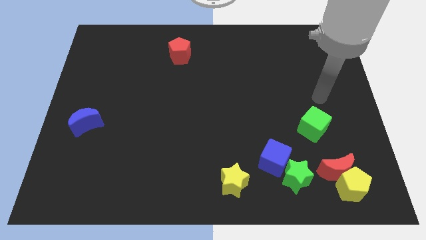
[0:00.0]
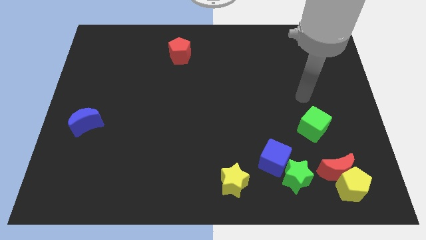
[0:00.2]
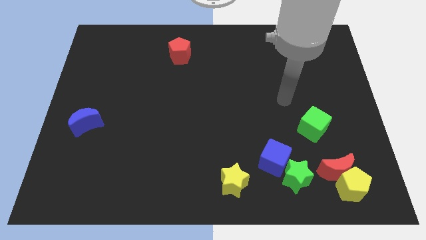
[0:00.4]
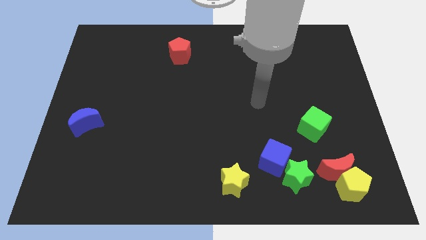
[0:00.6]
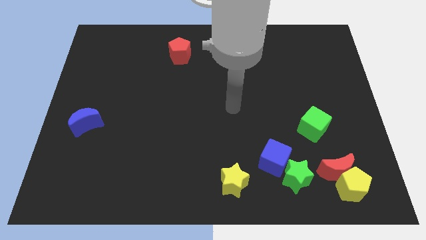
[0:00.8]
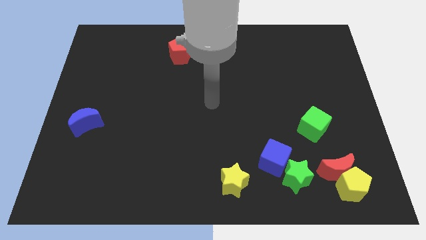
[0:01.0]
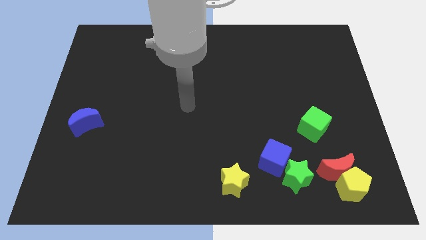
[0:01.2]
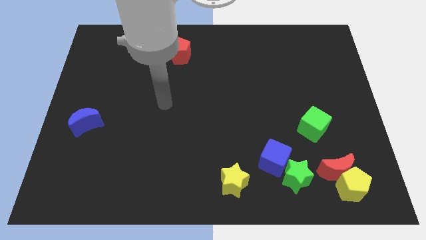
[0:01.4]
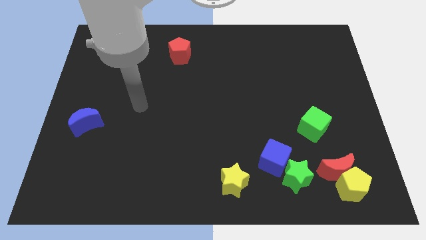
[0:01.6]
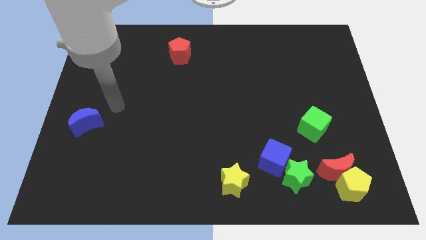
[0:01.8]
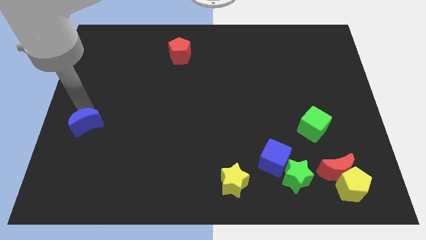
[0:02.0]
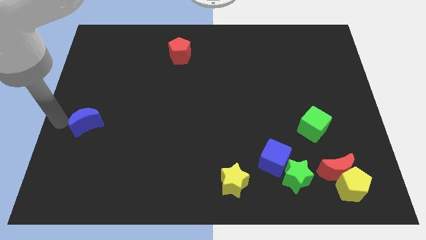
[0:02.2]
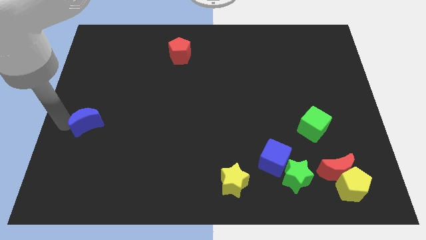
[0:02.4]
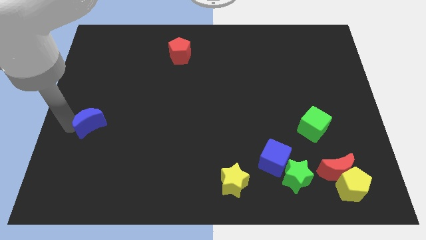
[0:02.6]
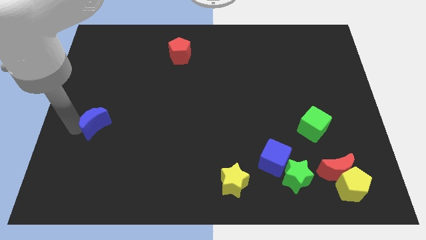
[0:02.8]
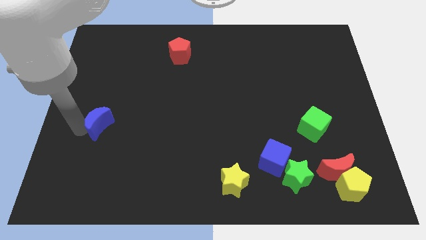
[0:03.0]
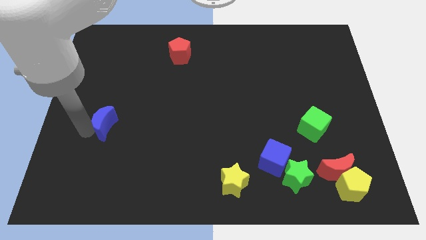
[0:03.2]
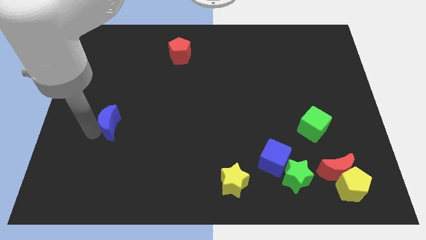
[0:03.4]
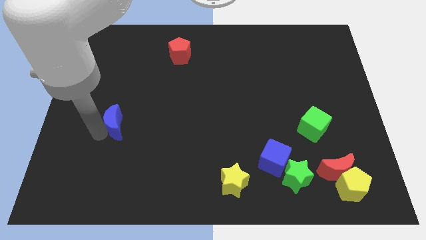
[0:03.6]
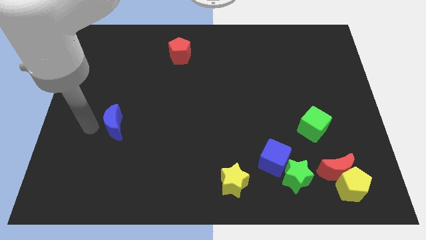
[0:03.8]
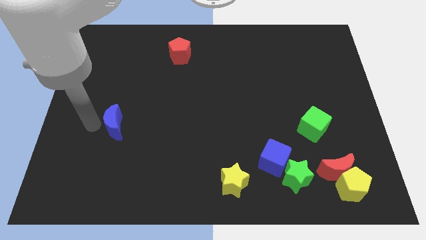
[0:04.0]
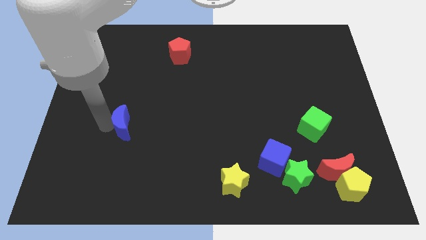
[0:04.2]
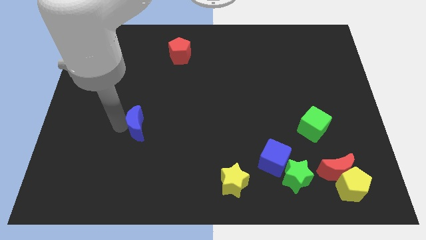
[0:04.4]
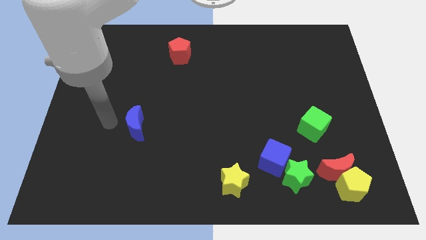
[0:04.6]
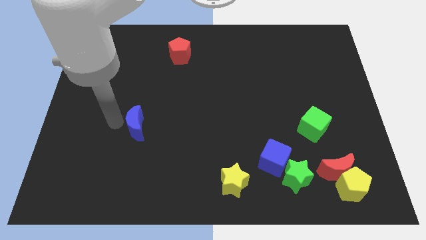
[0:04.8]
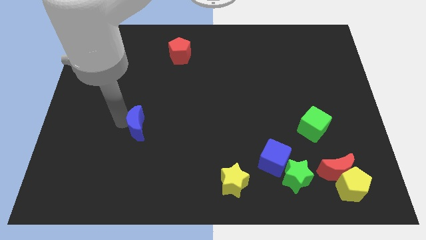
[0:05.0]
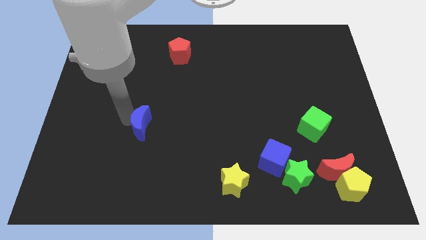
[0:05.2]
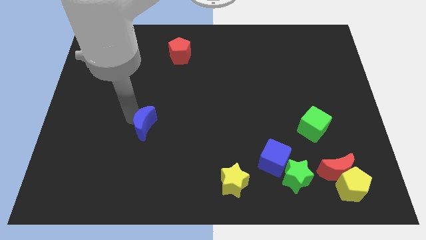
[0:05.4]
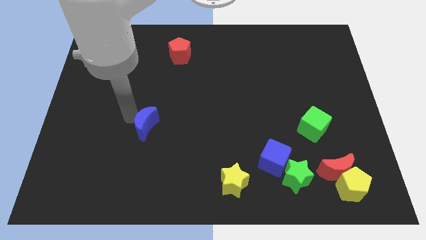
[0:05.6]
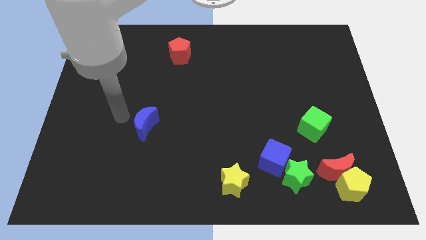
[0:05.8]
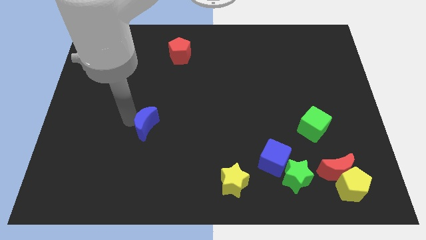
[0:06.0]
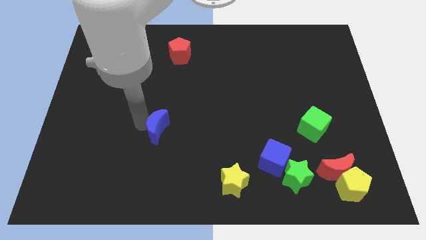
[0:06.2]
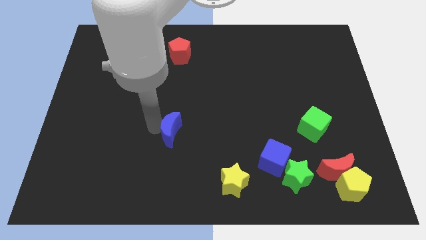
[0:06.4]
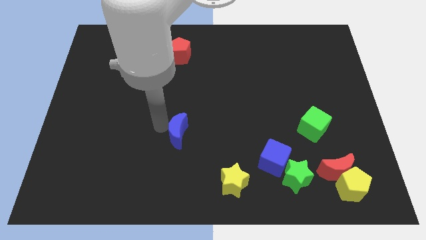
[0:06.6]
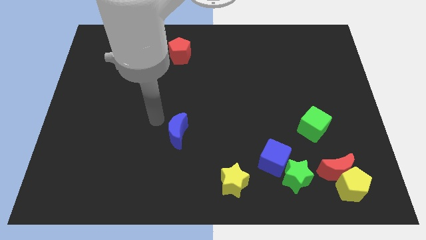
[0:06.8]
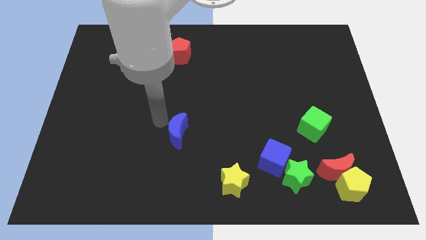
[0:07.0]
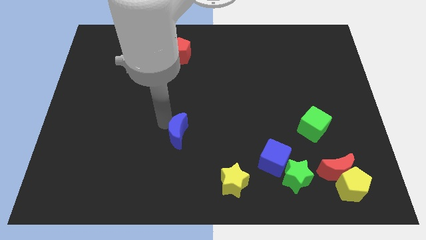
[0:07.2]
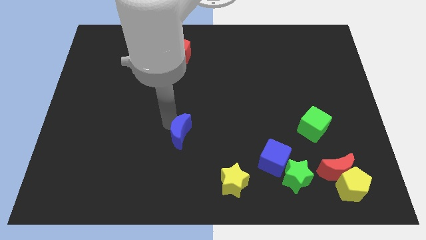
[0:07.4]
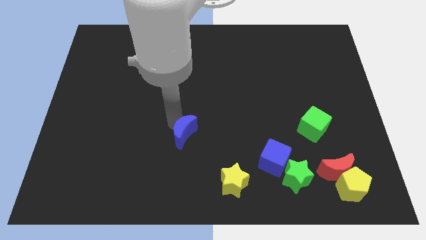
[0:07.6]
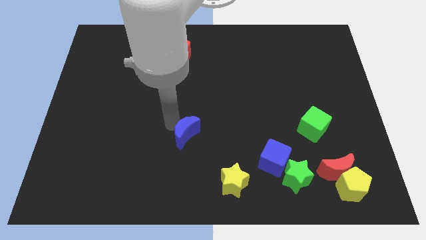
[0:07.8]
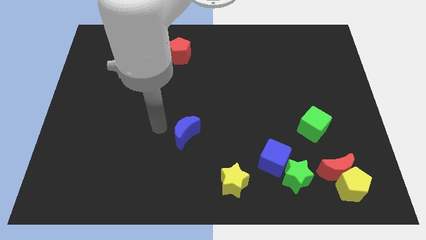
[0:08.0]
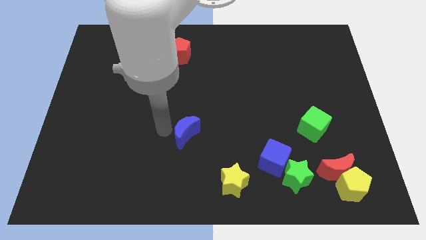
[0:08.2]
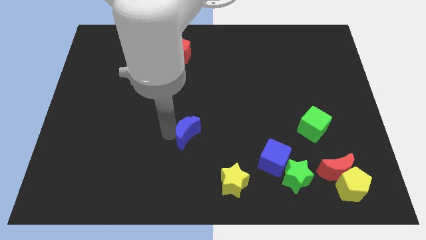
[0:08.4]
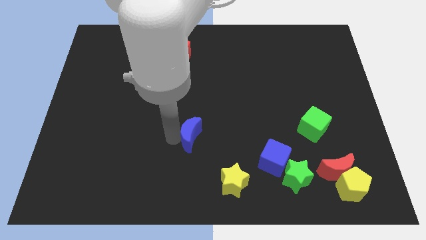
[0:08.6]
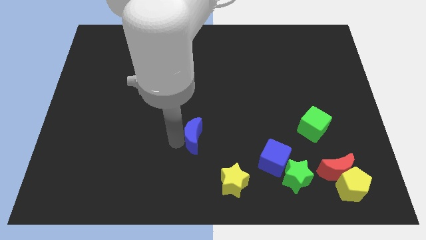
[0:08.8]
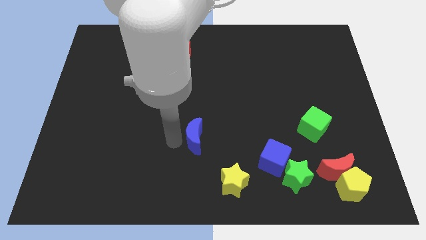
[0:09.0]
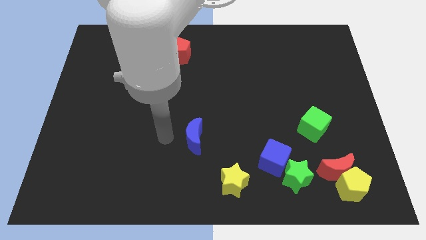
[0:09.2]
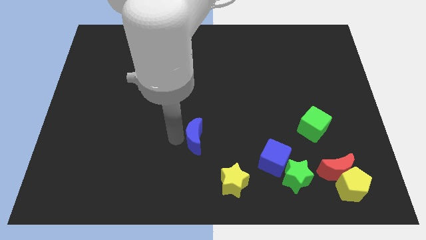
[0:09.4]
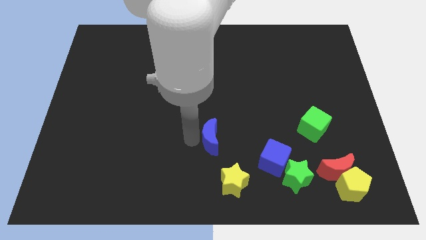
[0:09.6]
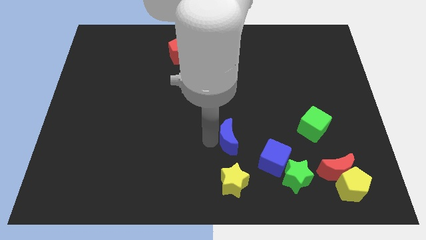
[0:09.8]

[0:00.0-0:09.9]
put the blue moon to the top left of the blue cube

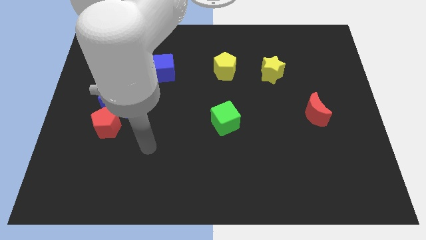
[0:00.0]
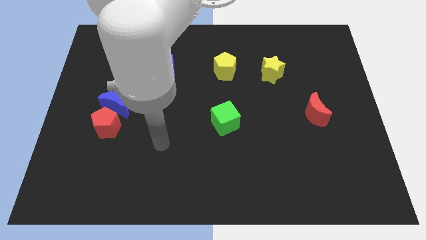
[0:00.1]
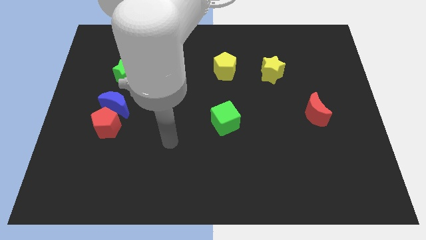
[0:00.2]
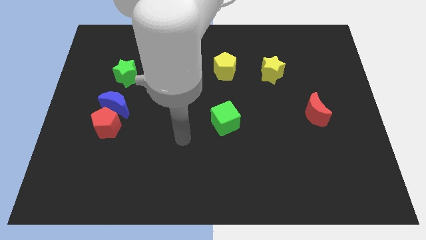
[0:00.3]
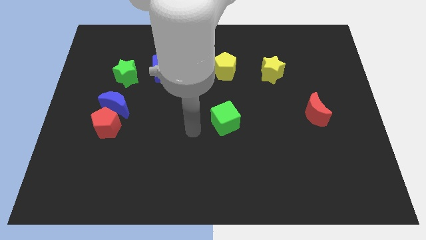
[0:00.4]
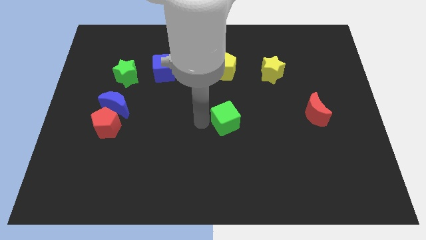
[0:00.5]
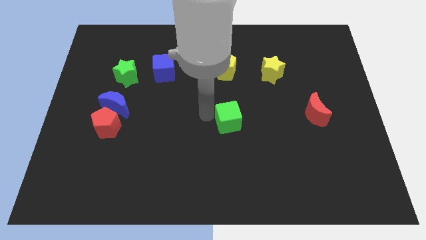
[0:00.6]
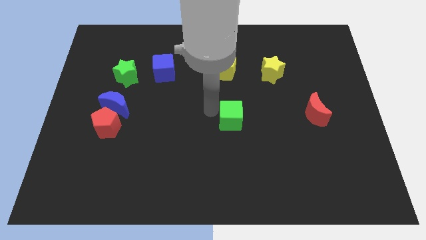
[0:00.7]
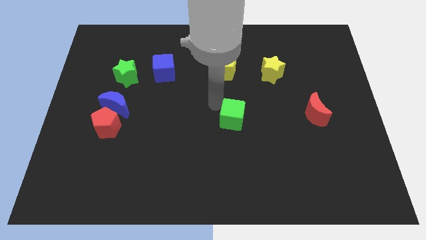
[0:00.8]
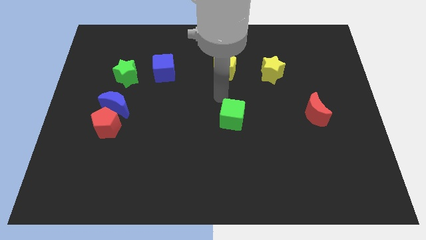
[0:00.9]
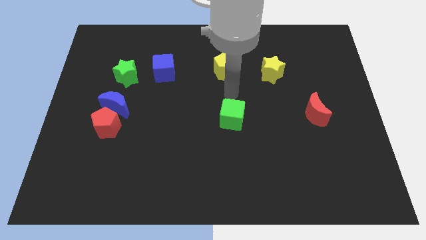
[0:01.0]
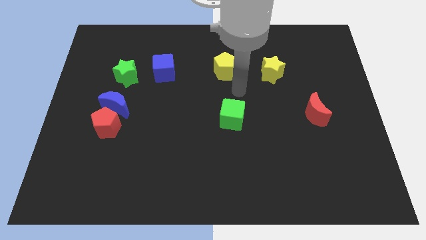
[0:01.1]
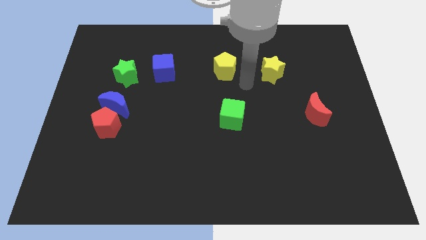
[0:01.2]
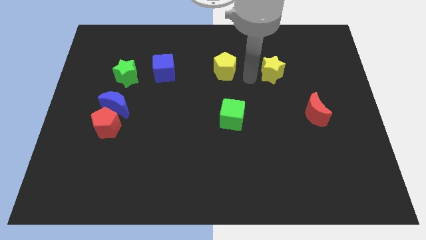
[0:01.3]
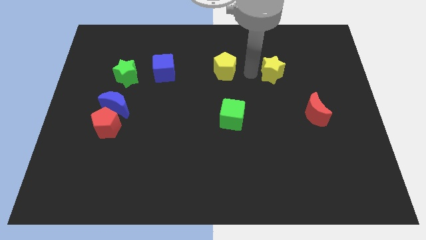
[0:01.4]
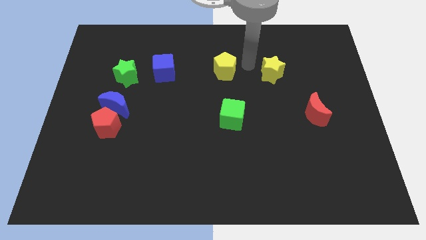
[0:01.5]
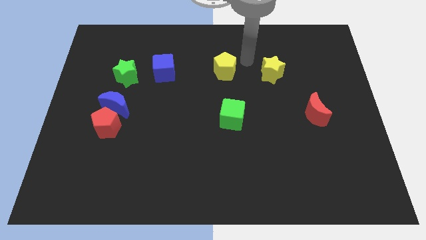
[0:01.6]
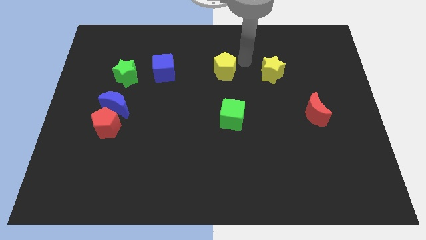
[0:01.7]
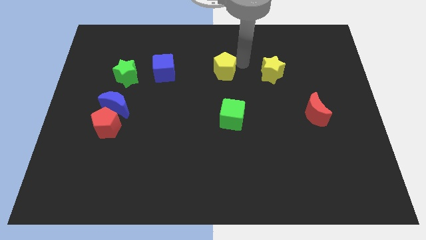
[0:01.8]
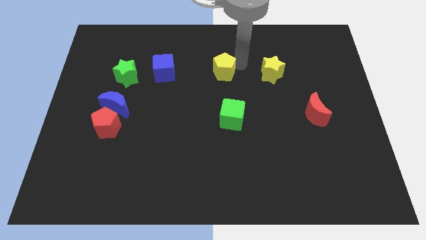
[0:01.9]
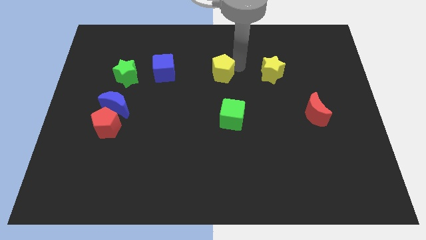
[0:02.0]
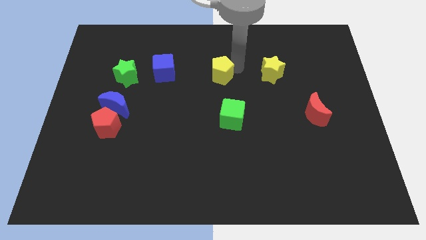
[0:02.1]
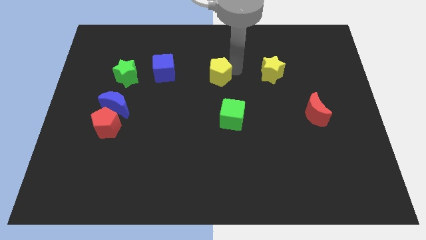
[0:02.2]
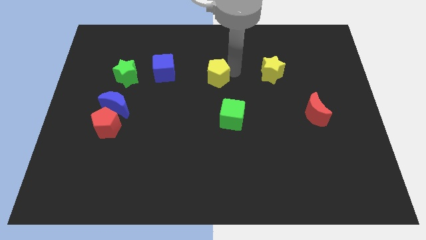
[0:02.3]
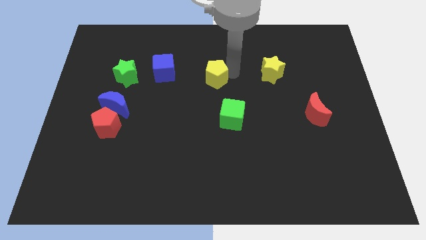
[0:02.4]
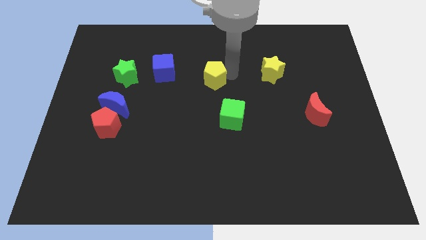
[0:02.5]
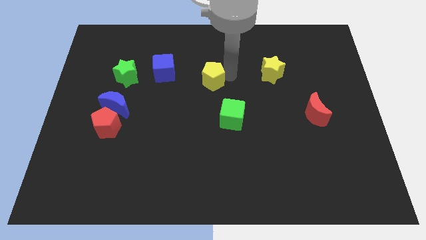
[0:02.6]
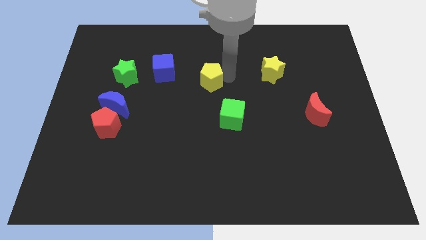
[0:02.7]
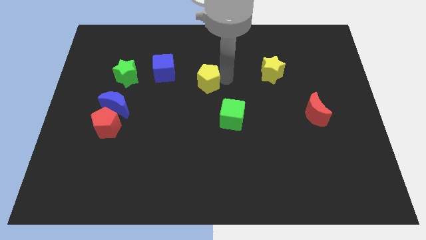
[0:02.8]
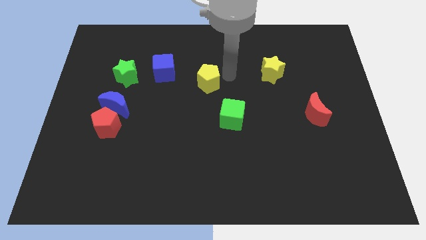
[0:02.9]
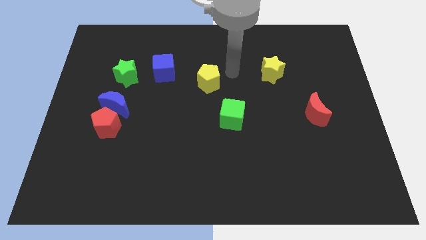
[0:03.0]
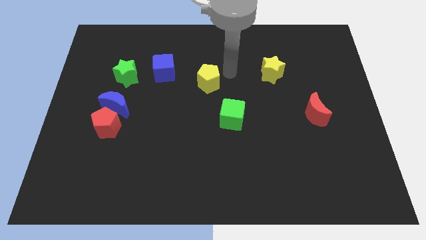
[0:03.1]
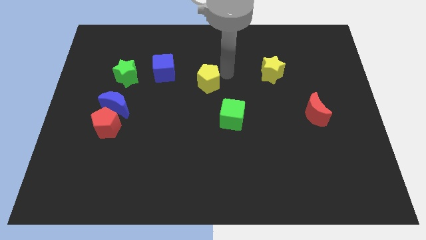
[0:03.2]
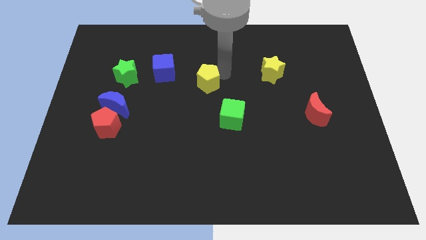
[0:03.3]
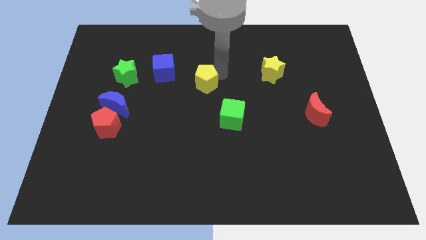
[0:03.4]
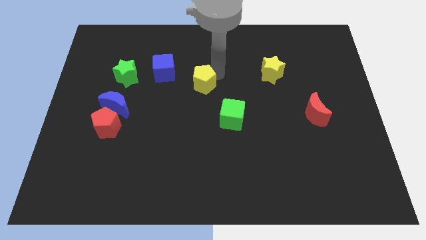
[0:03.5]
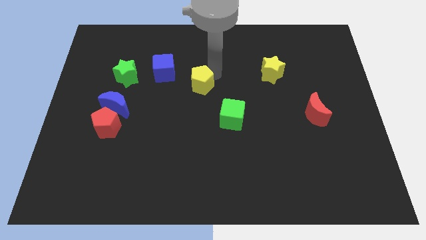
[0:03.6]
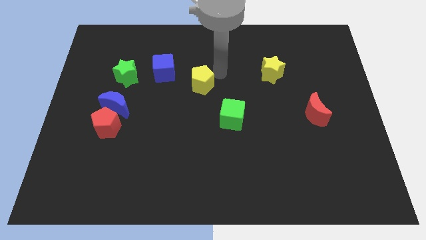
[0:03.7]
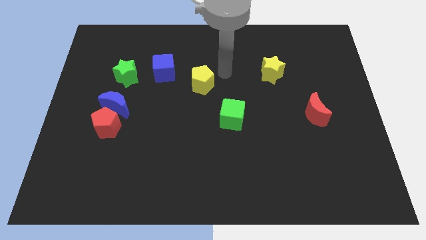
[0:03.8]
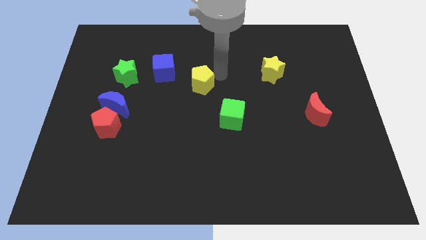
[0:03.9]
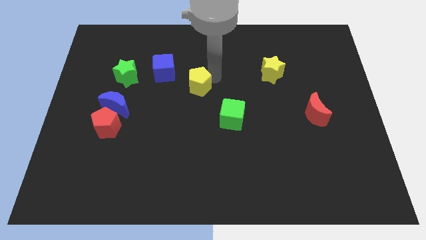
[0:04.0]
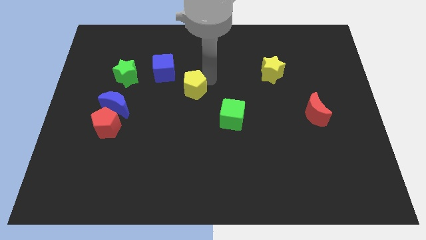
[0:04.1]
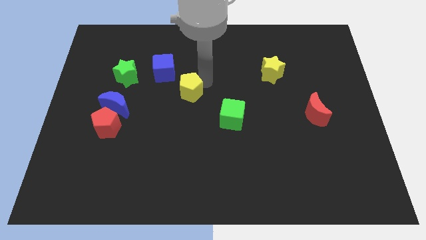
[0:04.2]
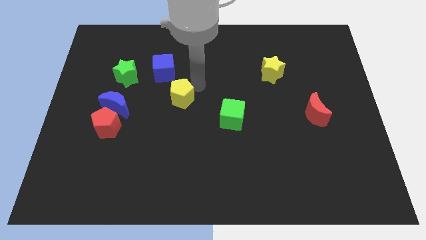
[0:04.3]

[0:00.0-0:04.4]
put the yellow pentagon to the right of the blue moon
